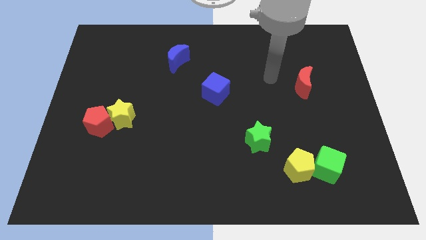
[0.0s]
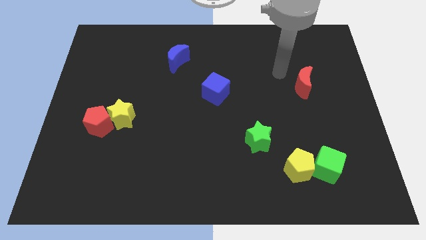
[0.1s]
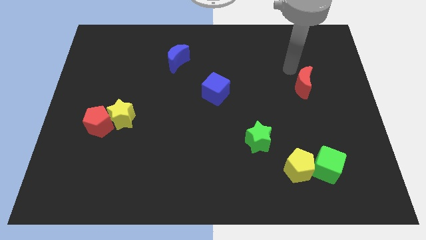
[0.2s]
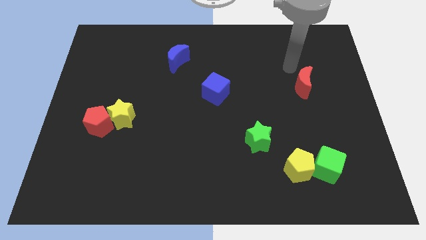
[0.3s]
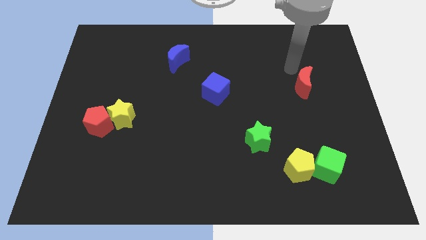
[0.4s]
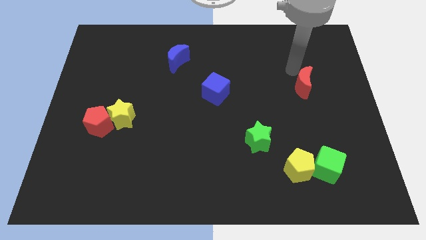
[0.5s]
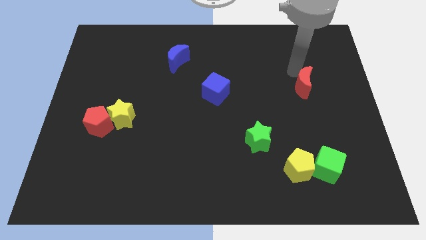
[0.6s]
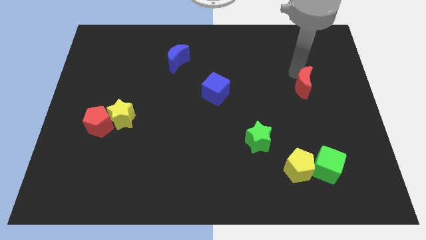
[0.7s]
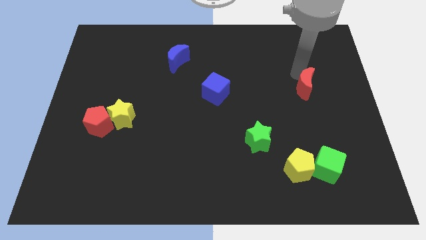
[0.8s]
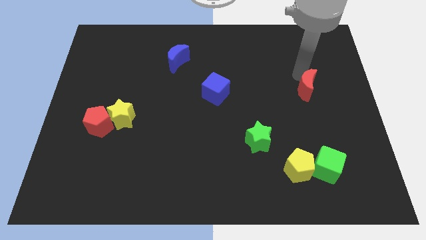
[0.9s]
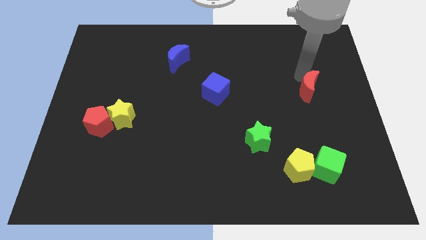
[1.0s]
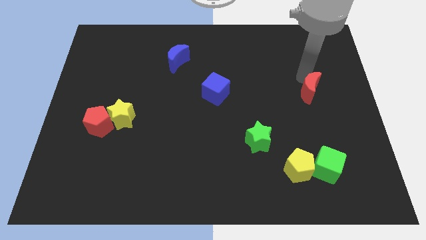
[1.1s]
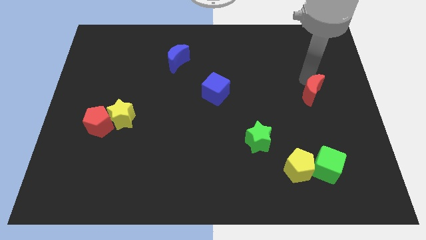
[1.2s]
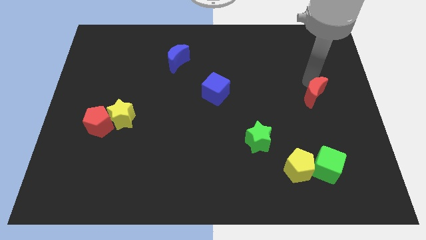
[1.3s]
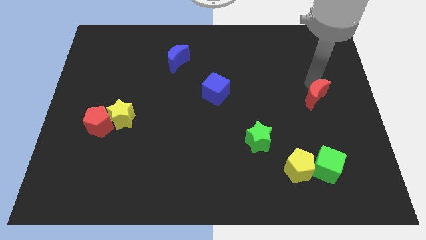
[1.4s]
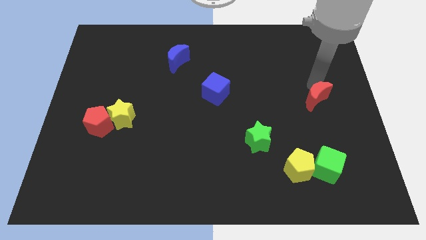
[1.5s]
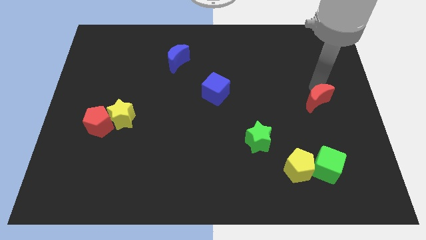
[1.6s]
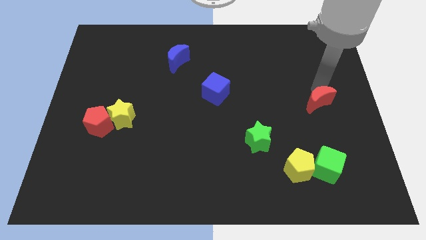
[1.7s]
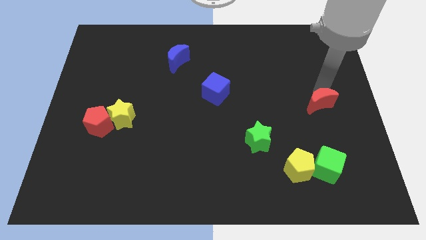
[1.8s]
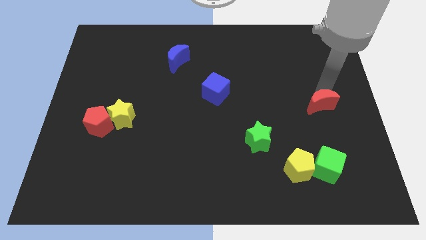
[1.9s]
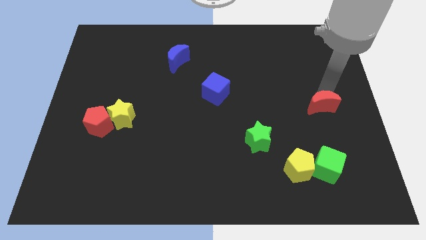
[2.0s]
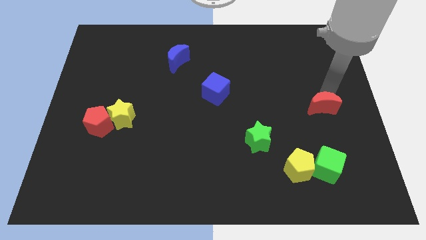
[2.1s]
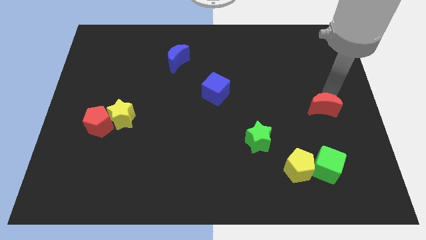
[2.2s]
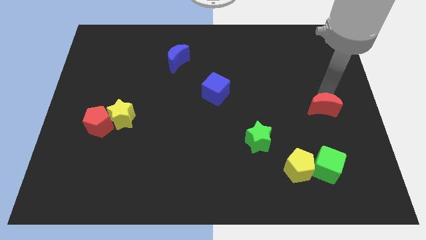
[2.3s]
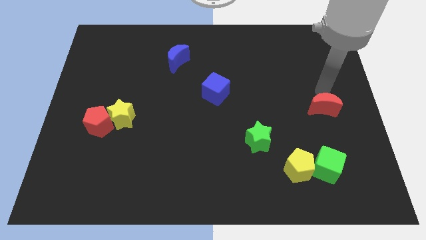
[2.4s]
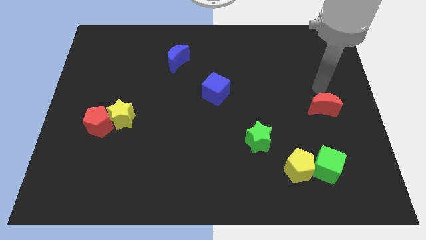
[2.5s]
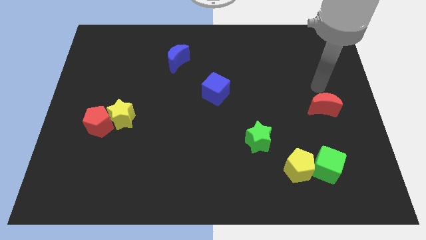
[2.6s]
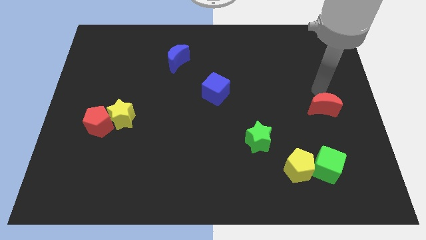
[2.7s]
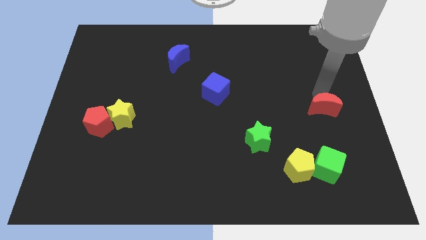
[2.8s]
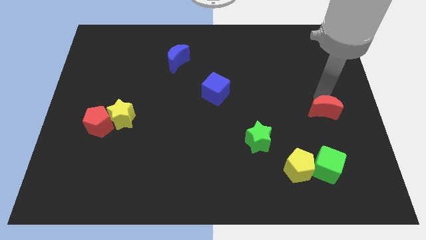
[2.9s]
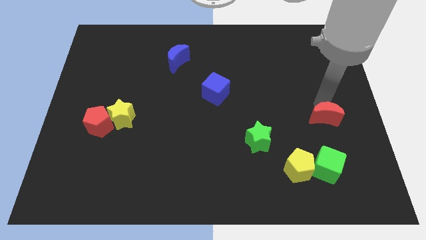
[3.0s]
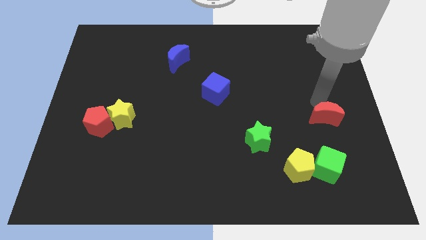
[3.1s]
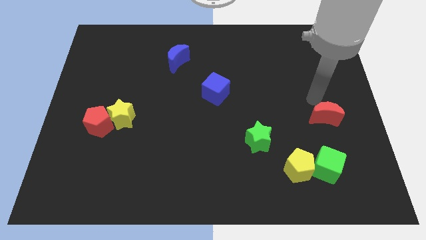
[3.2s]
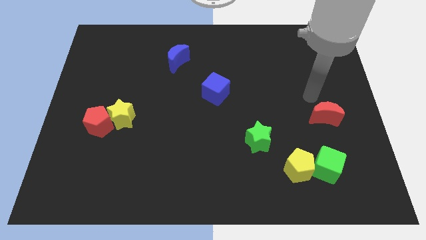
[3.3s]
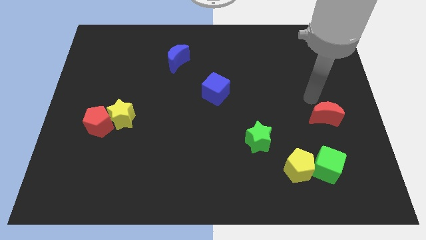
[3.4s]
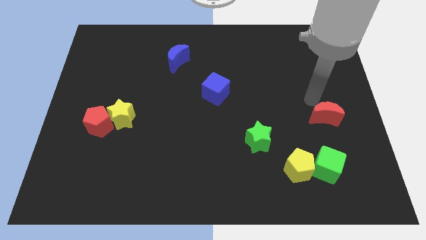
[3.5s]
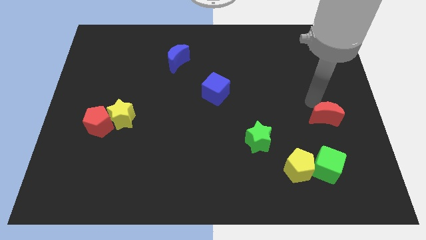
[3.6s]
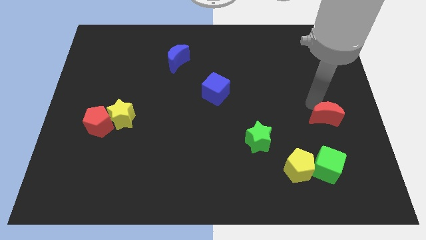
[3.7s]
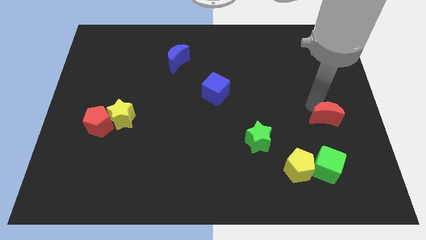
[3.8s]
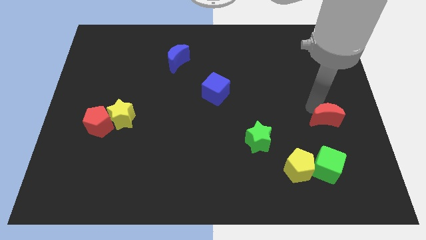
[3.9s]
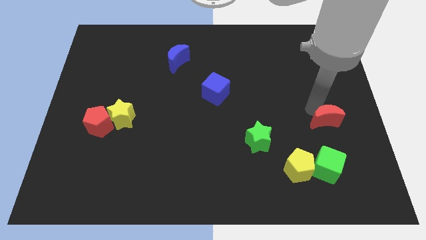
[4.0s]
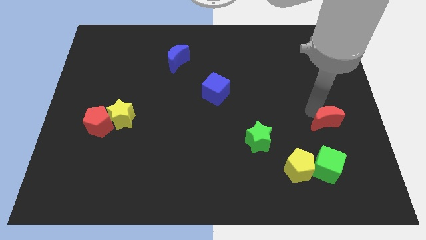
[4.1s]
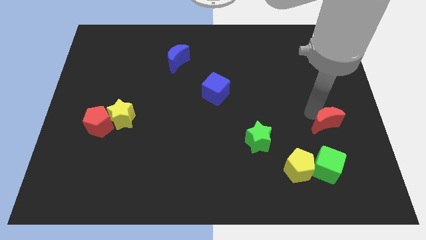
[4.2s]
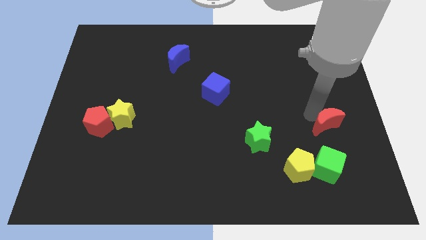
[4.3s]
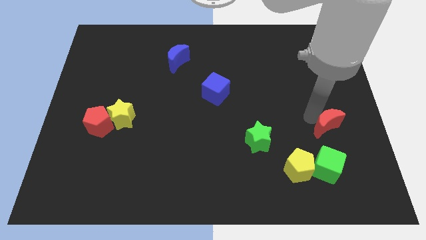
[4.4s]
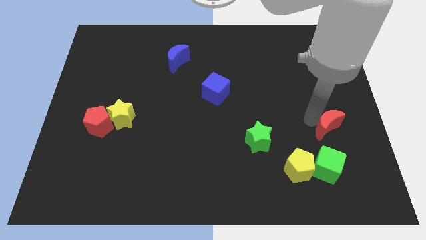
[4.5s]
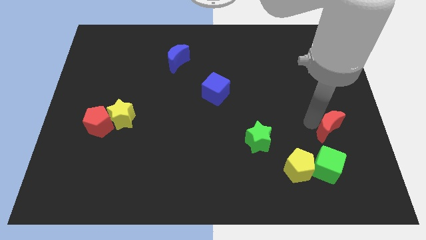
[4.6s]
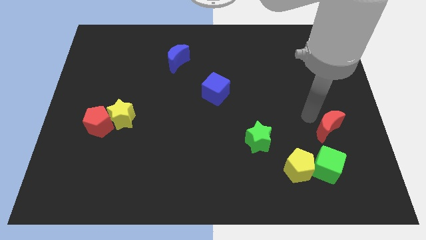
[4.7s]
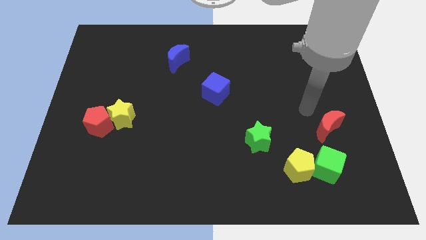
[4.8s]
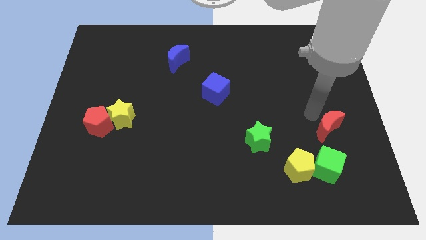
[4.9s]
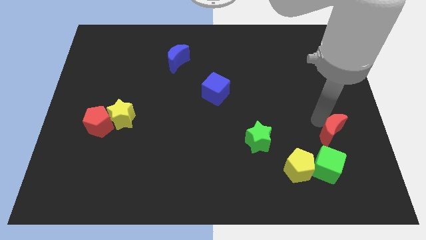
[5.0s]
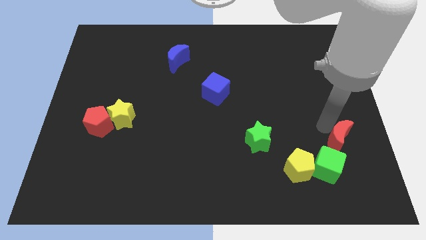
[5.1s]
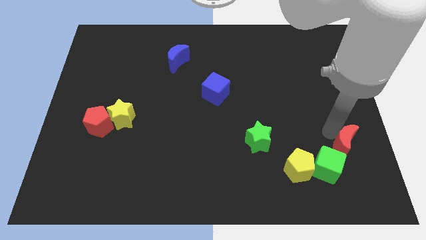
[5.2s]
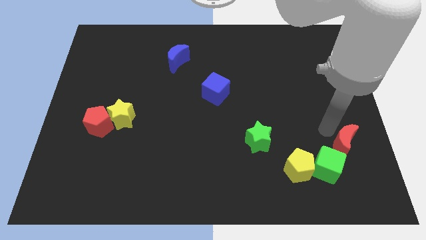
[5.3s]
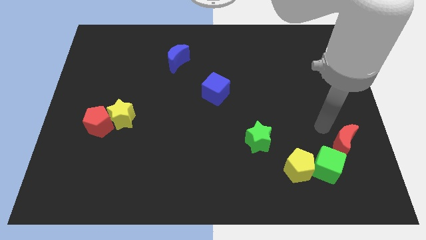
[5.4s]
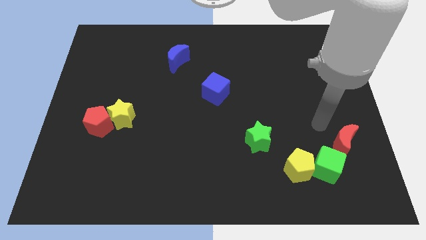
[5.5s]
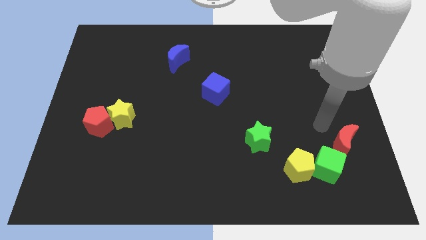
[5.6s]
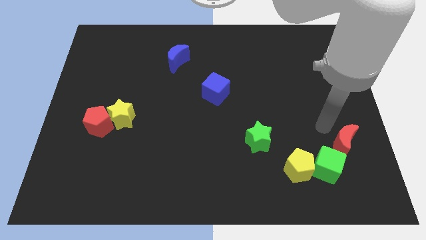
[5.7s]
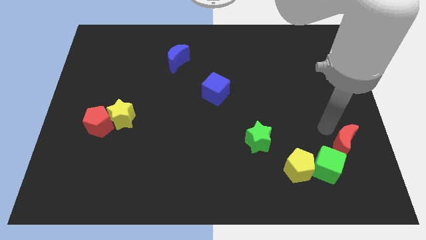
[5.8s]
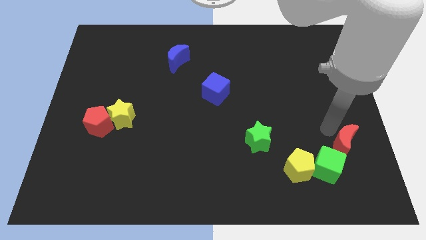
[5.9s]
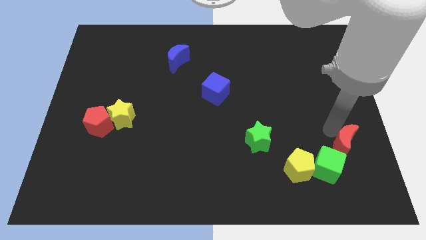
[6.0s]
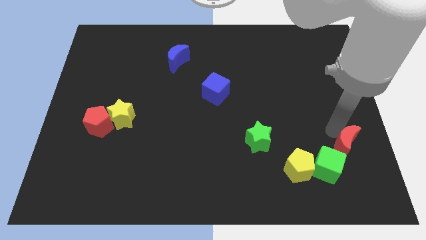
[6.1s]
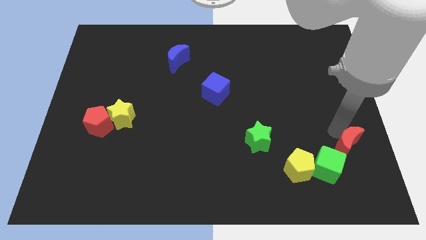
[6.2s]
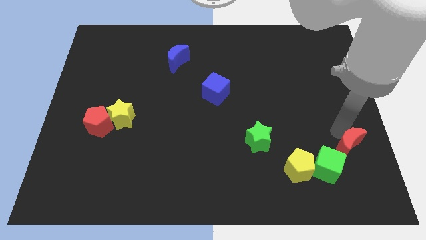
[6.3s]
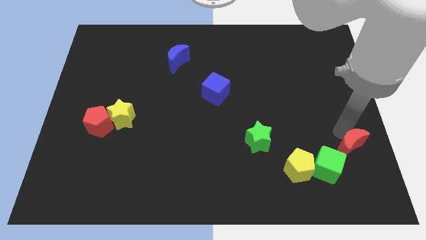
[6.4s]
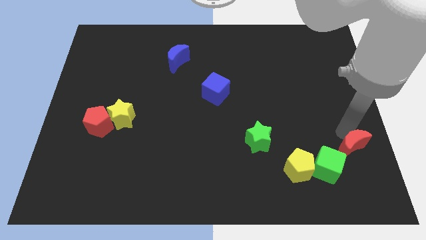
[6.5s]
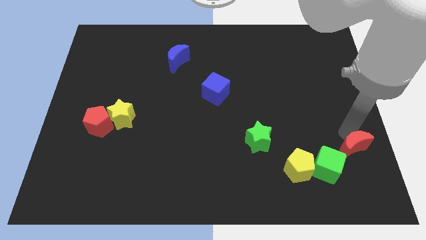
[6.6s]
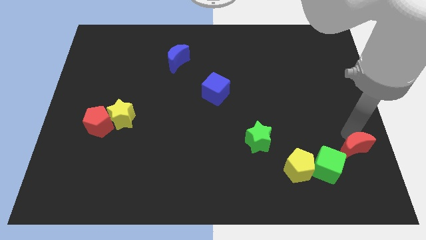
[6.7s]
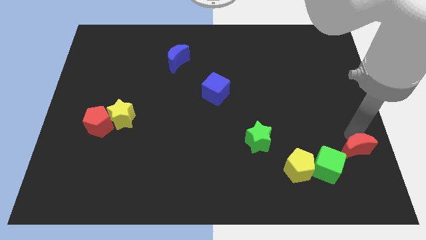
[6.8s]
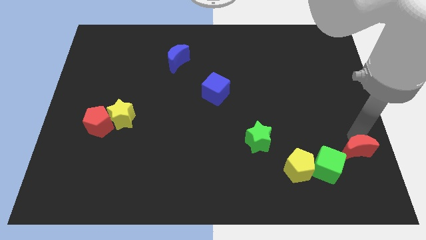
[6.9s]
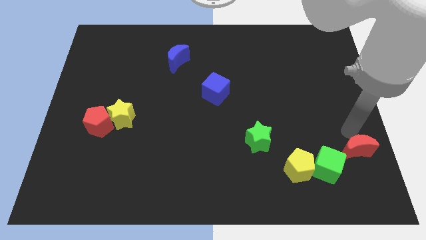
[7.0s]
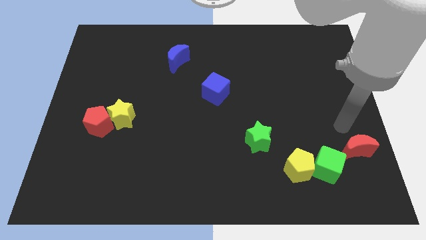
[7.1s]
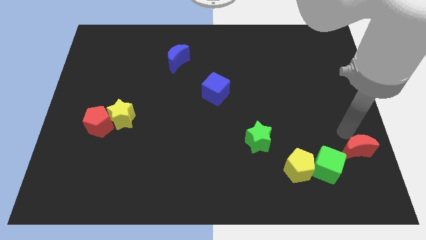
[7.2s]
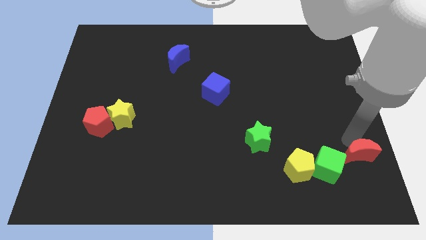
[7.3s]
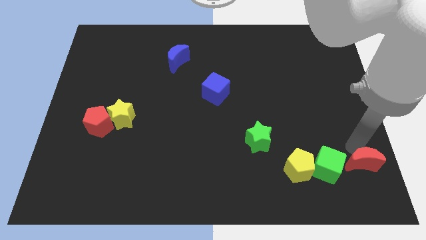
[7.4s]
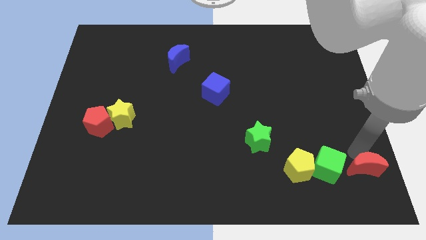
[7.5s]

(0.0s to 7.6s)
put the red moon to the bottom right of the board

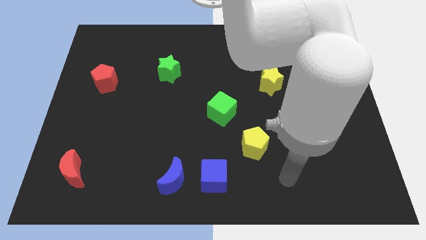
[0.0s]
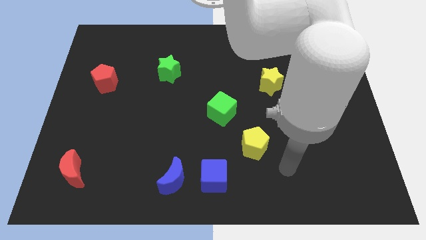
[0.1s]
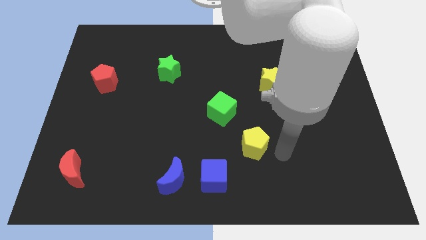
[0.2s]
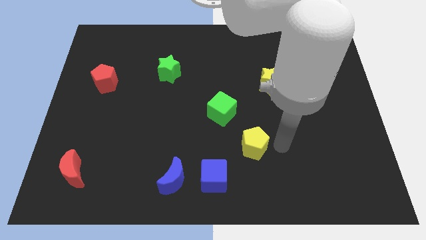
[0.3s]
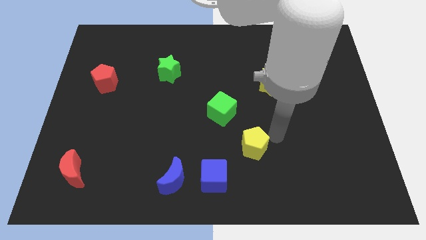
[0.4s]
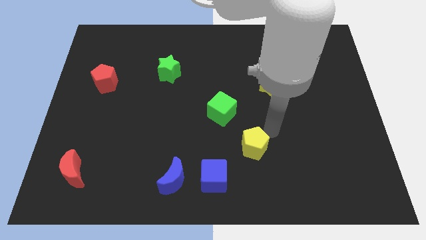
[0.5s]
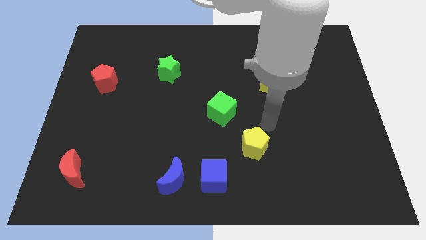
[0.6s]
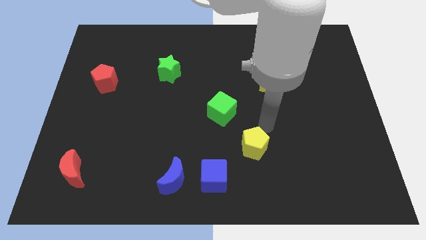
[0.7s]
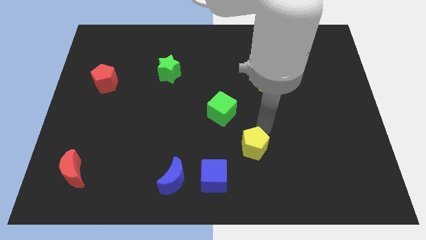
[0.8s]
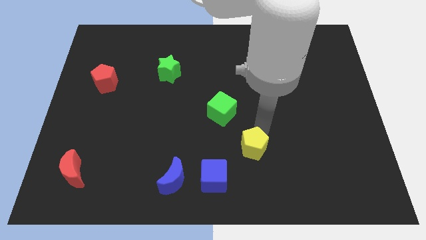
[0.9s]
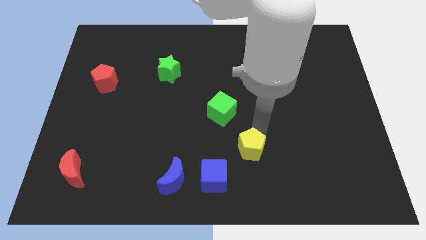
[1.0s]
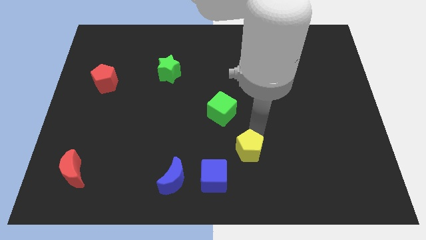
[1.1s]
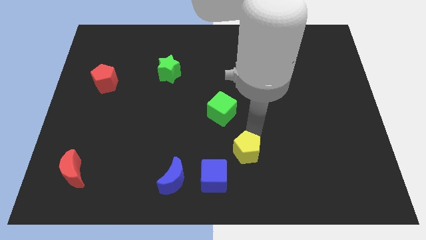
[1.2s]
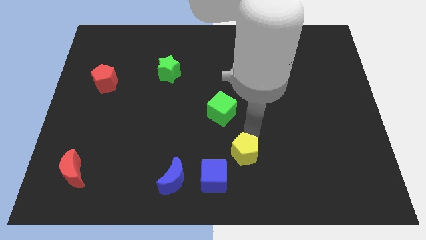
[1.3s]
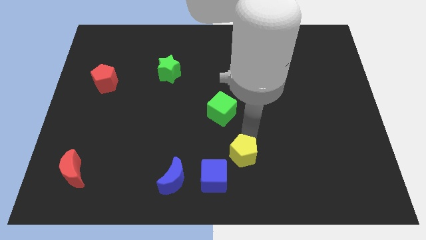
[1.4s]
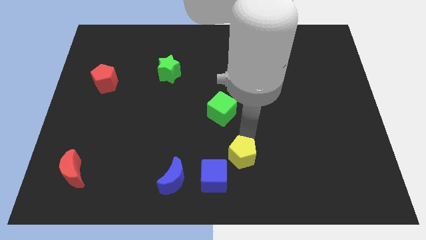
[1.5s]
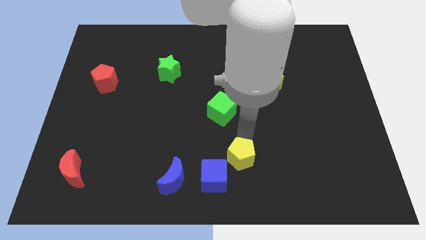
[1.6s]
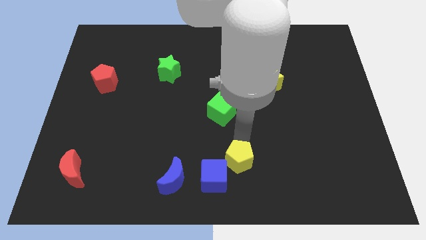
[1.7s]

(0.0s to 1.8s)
push the yellow pentagon to the bottom
